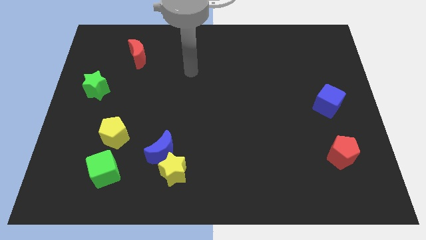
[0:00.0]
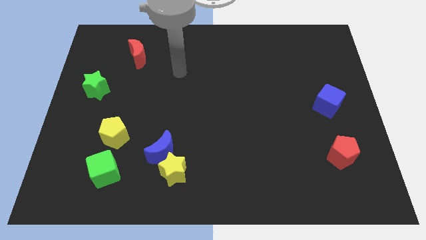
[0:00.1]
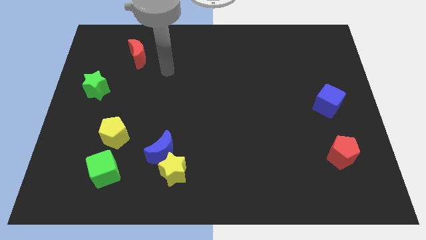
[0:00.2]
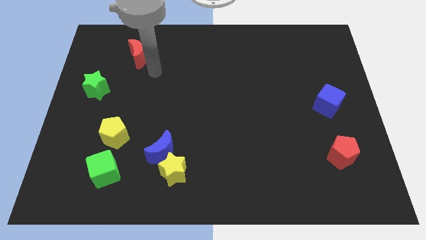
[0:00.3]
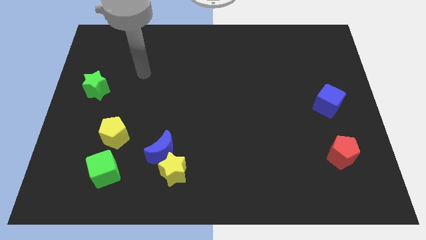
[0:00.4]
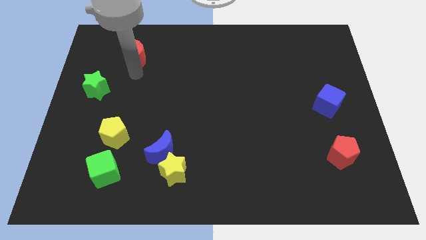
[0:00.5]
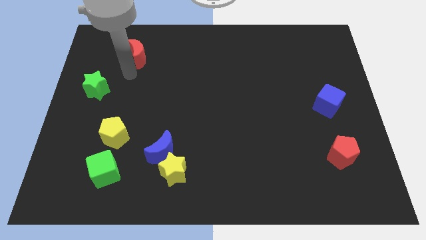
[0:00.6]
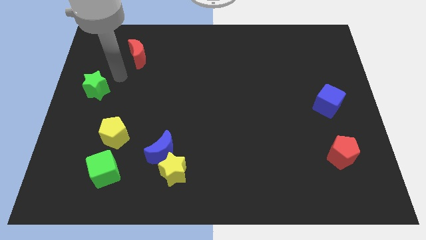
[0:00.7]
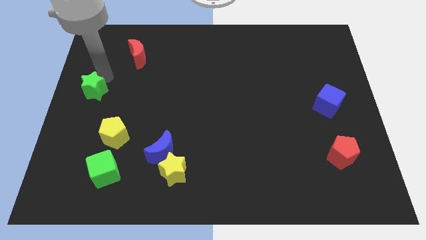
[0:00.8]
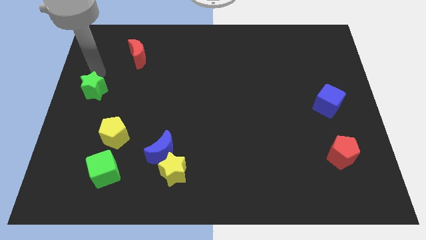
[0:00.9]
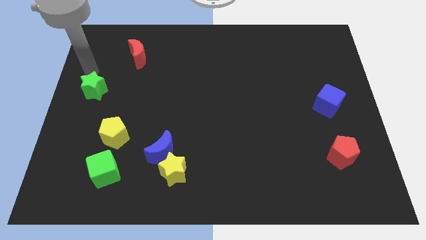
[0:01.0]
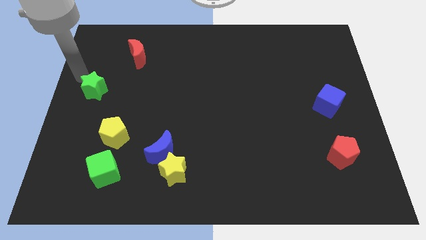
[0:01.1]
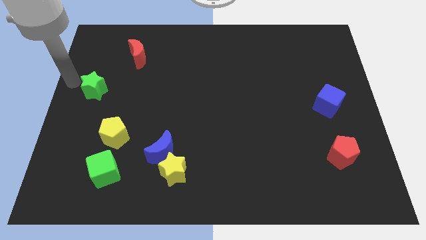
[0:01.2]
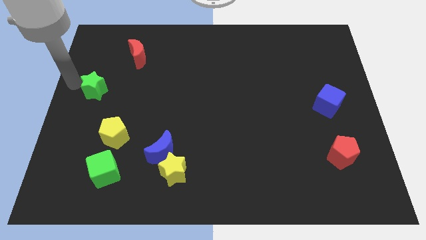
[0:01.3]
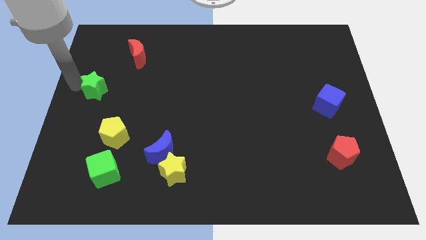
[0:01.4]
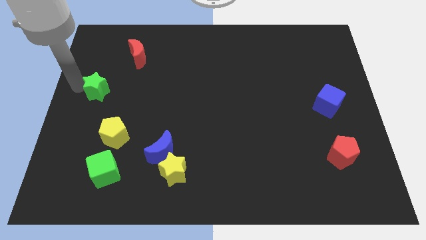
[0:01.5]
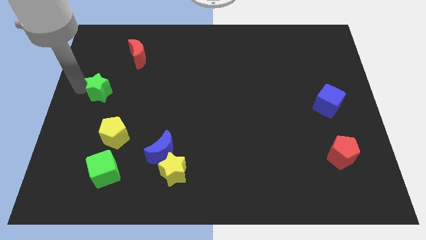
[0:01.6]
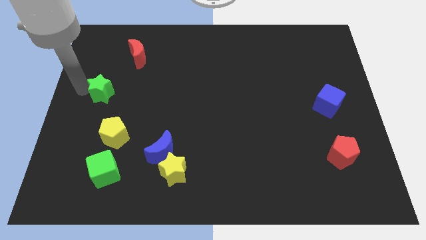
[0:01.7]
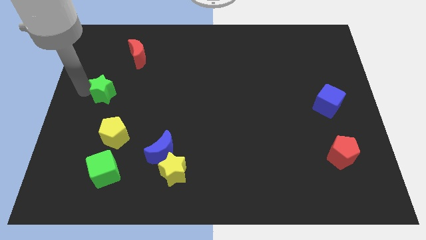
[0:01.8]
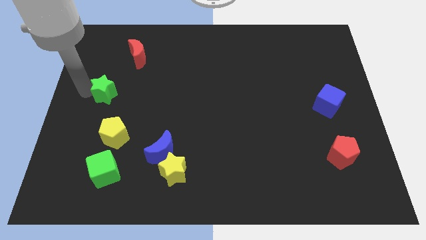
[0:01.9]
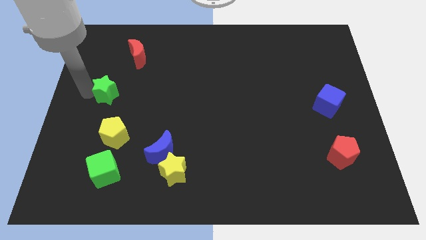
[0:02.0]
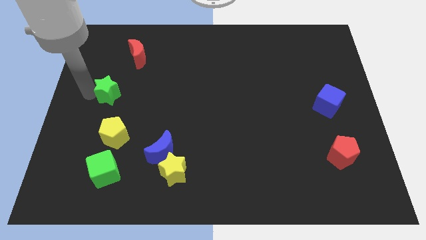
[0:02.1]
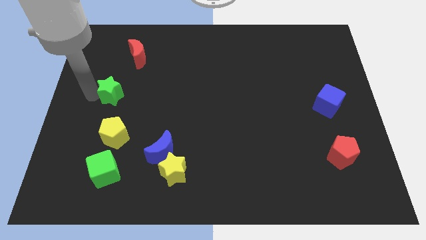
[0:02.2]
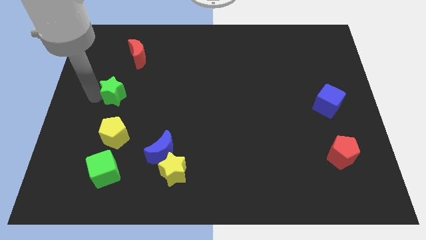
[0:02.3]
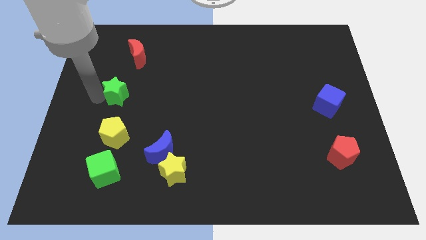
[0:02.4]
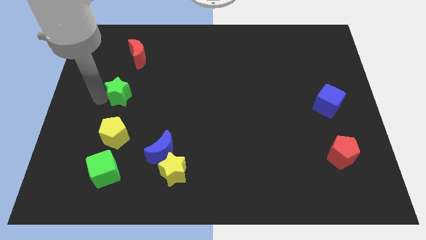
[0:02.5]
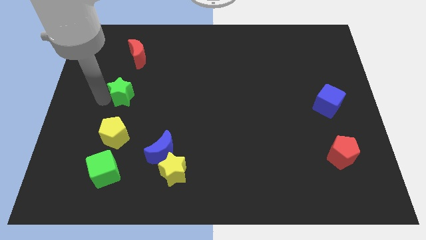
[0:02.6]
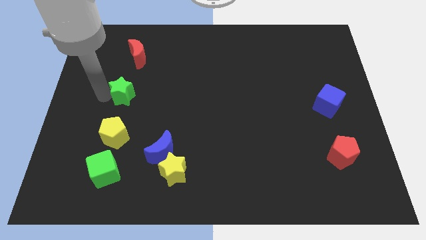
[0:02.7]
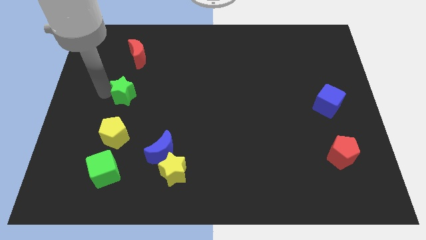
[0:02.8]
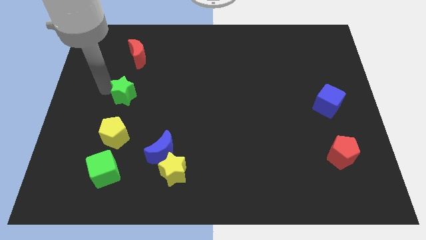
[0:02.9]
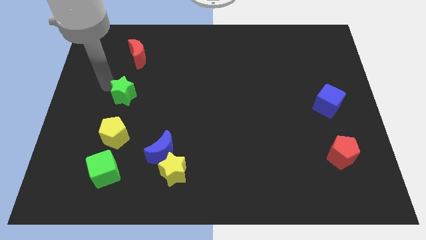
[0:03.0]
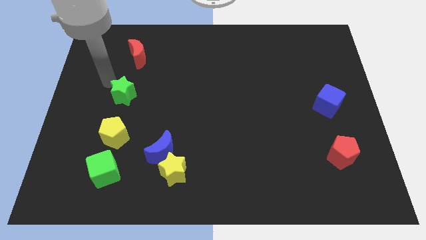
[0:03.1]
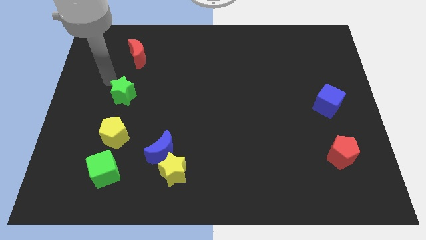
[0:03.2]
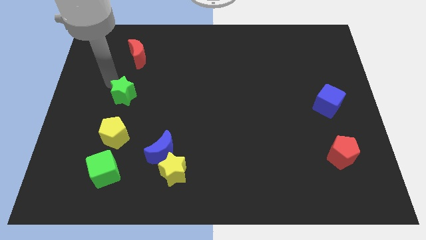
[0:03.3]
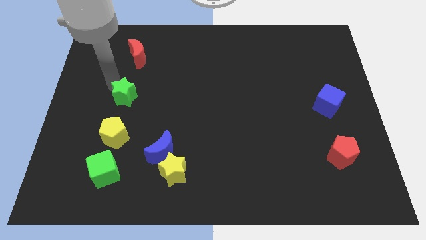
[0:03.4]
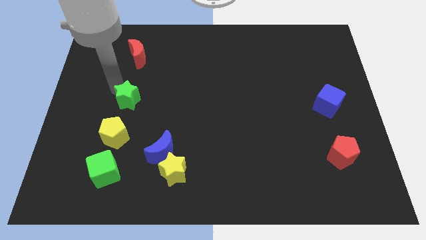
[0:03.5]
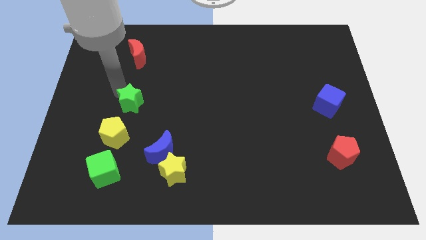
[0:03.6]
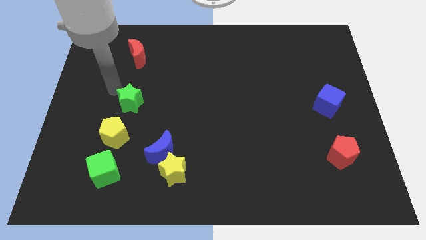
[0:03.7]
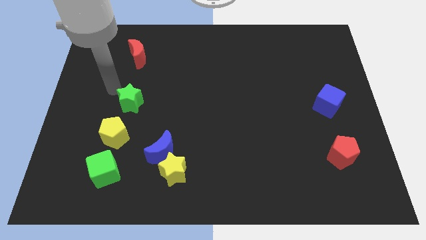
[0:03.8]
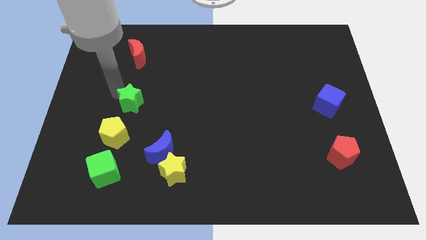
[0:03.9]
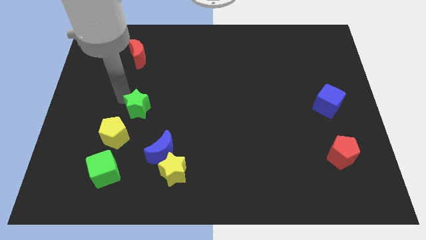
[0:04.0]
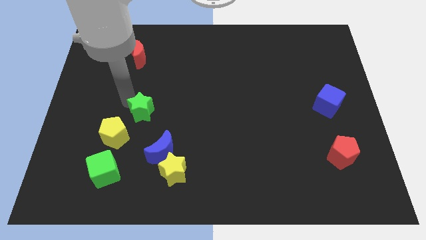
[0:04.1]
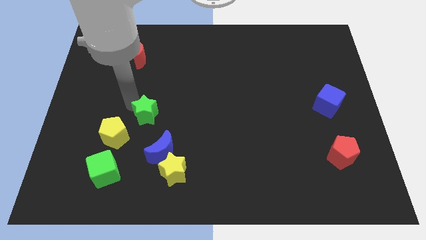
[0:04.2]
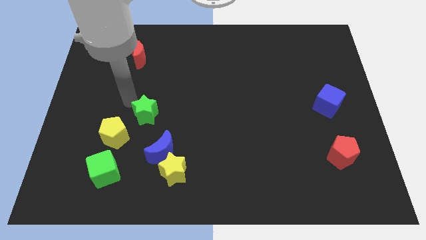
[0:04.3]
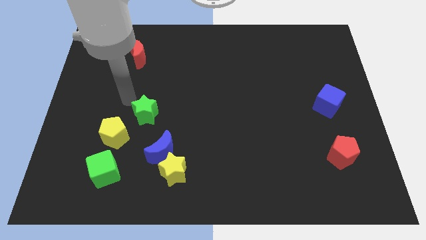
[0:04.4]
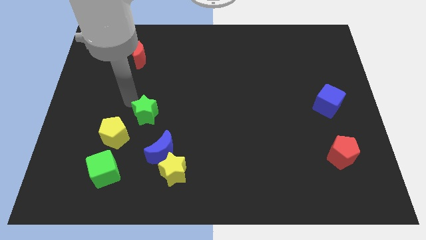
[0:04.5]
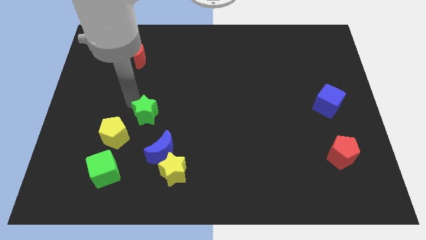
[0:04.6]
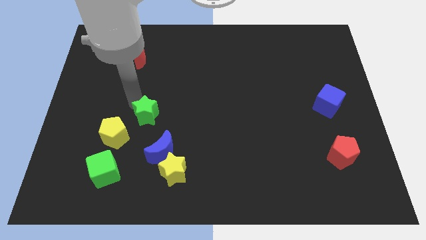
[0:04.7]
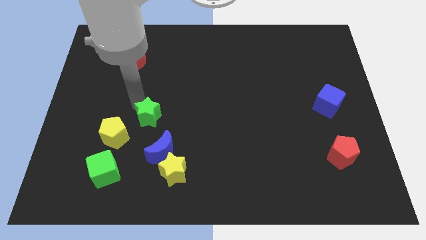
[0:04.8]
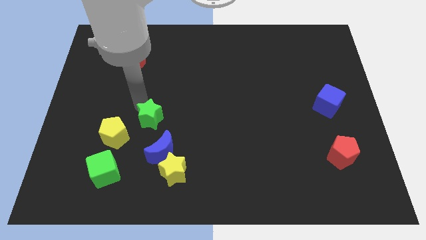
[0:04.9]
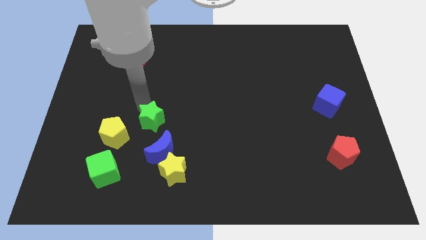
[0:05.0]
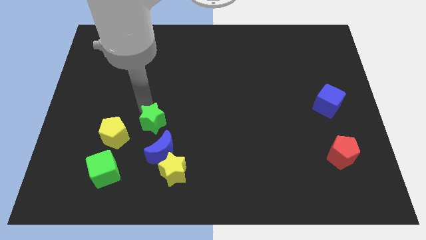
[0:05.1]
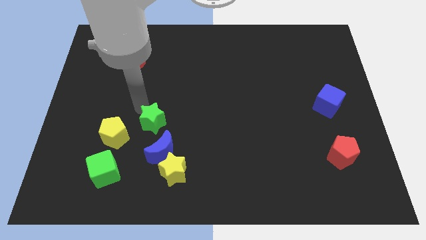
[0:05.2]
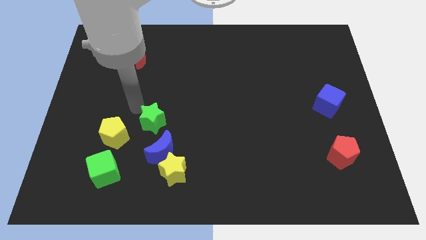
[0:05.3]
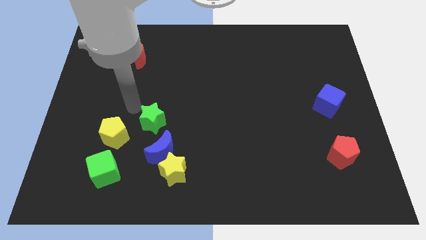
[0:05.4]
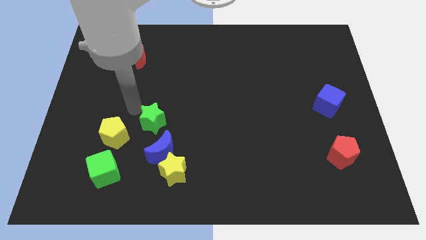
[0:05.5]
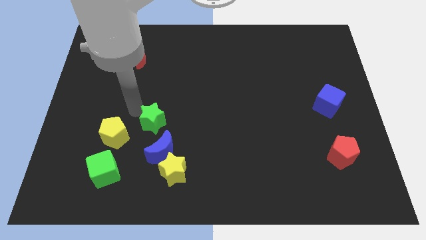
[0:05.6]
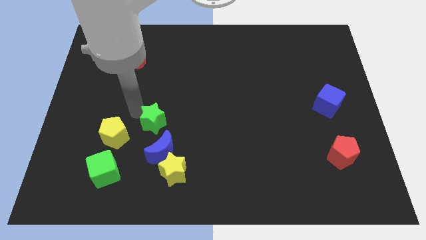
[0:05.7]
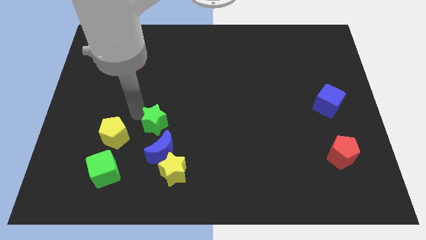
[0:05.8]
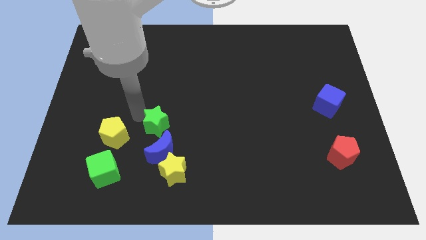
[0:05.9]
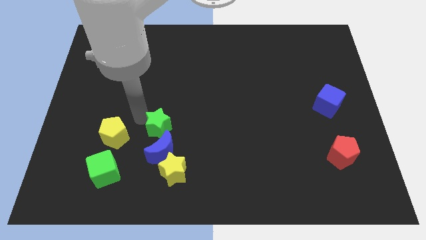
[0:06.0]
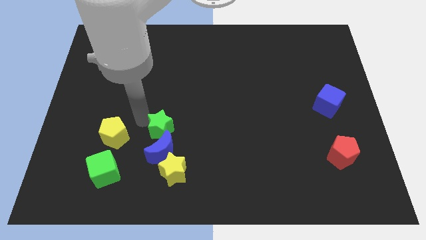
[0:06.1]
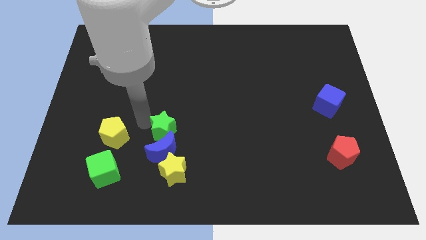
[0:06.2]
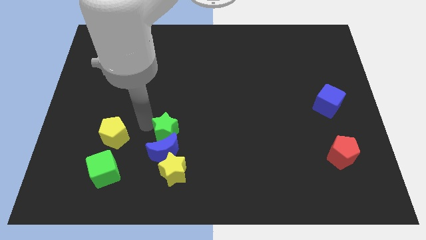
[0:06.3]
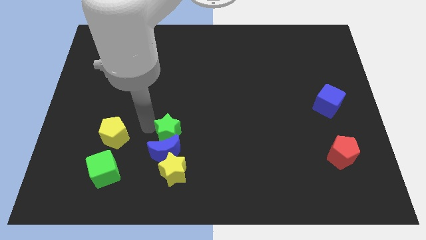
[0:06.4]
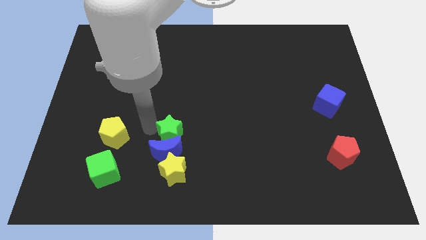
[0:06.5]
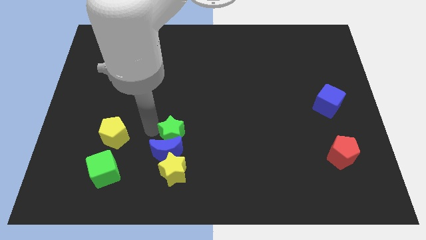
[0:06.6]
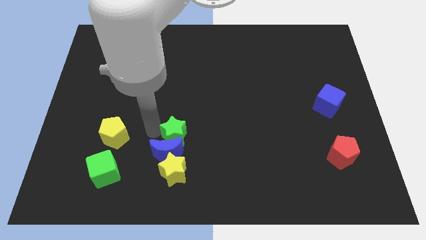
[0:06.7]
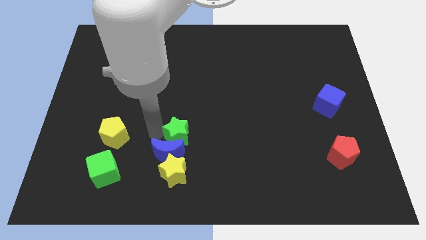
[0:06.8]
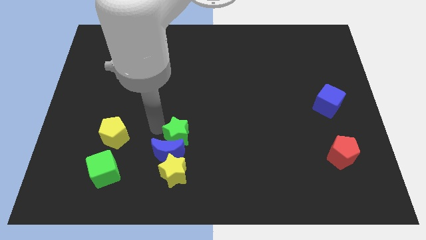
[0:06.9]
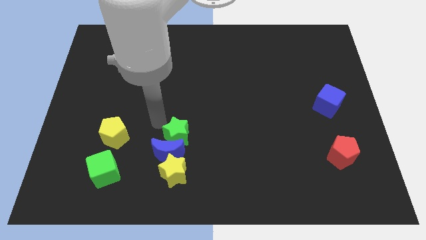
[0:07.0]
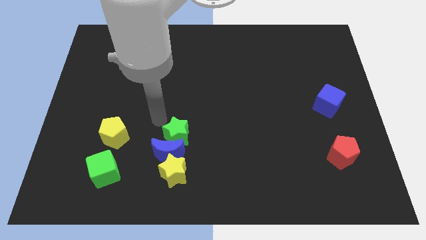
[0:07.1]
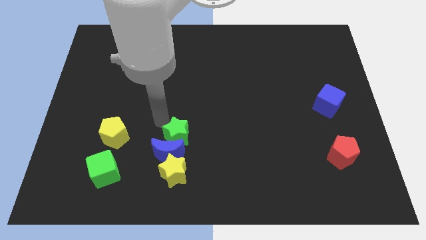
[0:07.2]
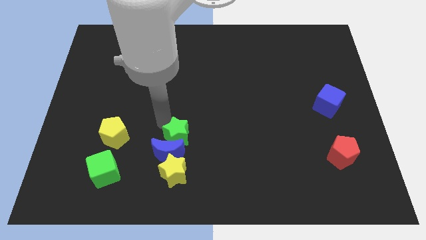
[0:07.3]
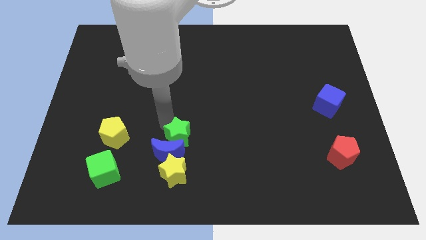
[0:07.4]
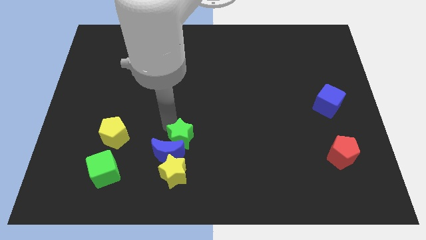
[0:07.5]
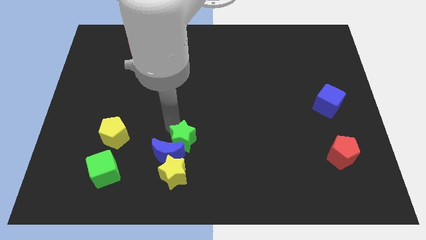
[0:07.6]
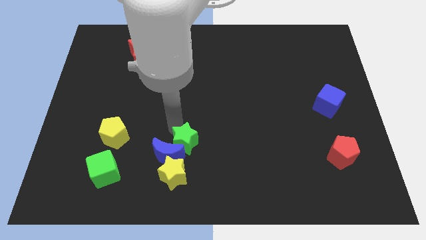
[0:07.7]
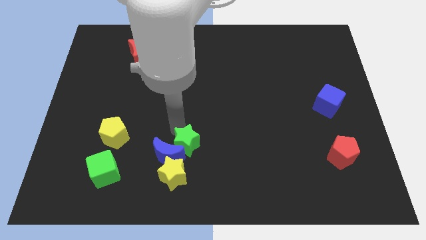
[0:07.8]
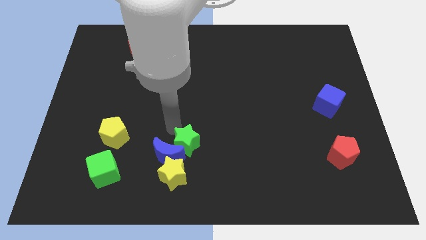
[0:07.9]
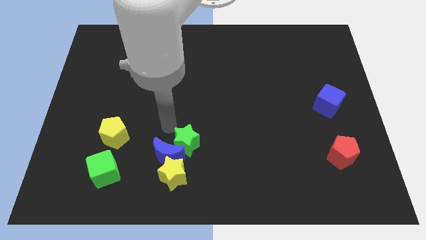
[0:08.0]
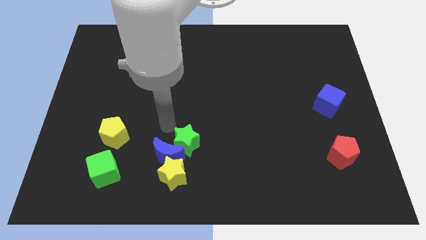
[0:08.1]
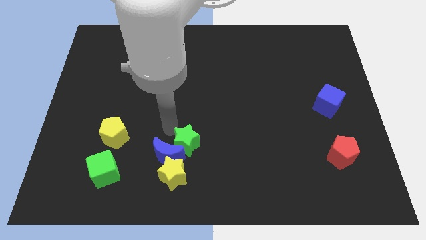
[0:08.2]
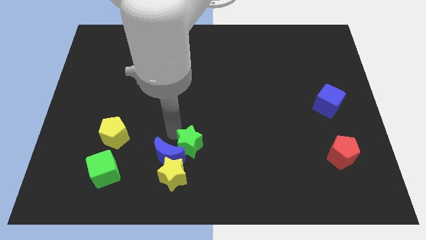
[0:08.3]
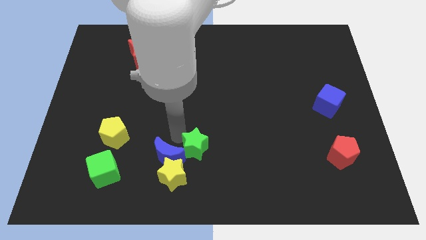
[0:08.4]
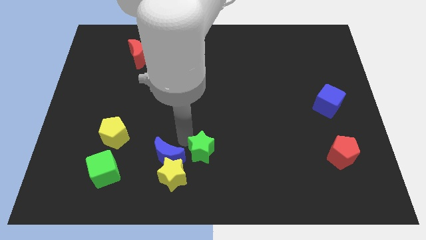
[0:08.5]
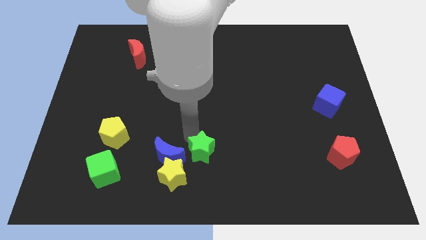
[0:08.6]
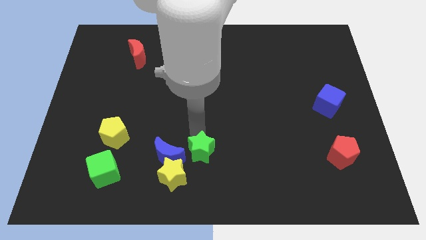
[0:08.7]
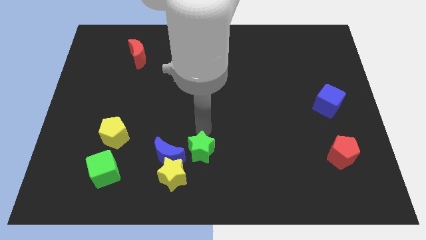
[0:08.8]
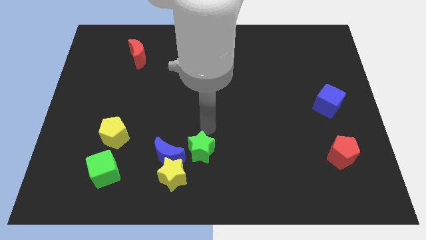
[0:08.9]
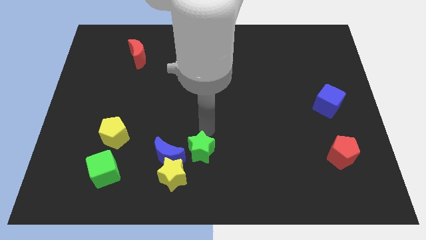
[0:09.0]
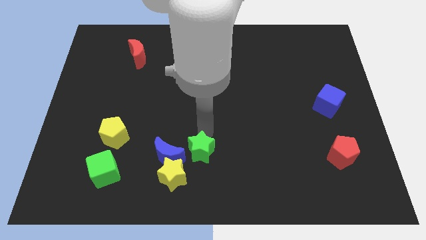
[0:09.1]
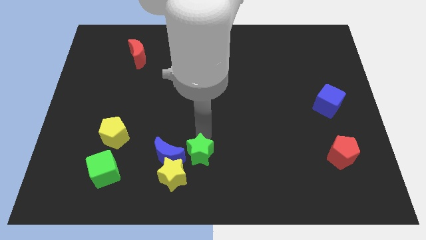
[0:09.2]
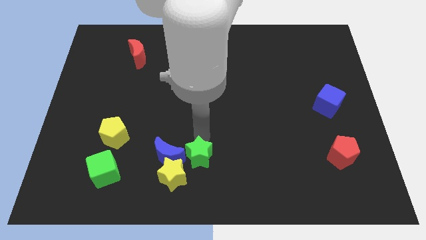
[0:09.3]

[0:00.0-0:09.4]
move the green star to the bottom right side of the blue moon
